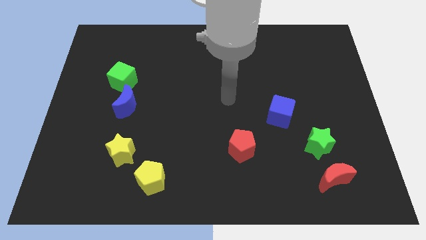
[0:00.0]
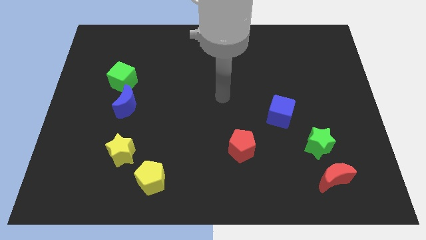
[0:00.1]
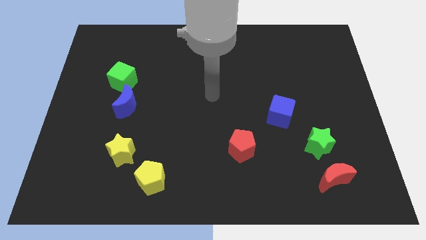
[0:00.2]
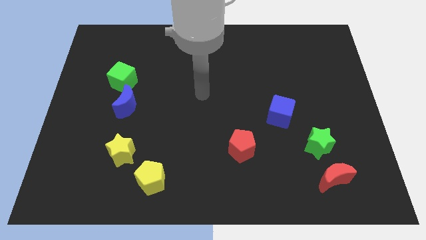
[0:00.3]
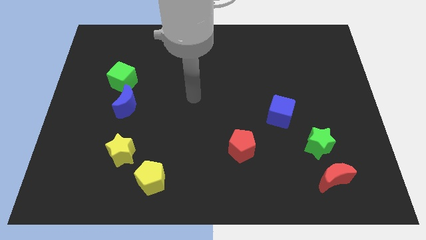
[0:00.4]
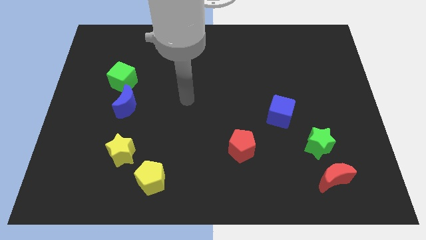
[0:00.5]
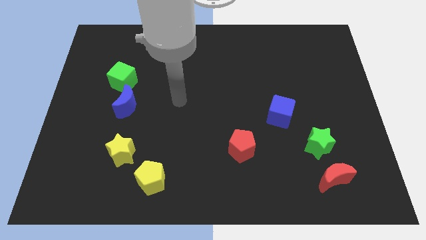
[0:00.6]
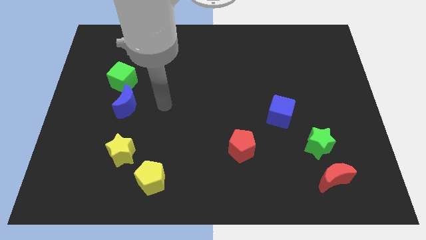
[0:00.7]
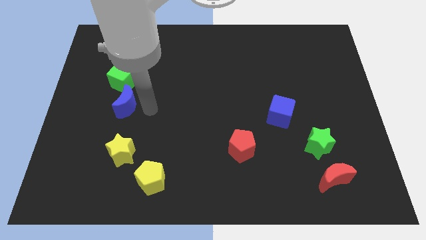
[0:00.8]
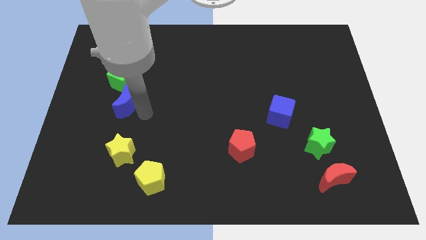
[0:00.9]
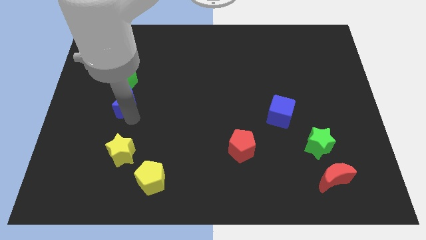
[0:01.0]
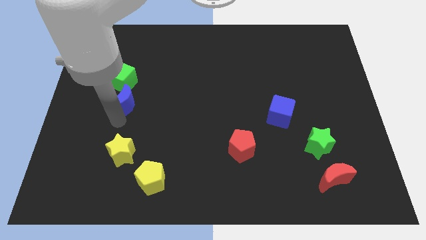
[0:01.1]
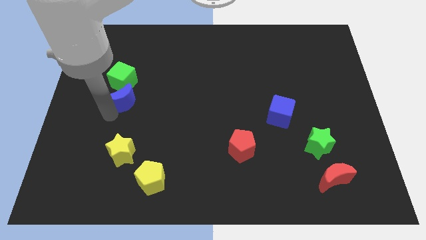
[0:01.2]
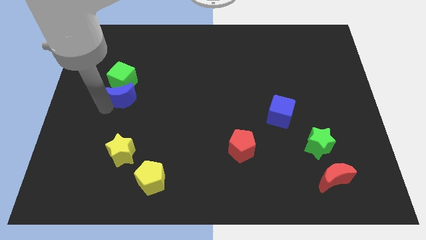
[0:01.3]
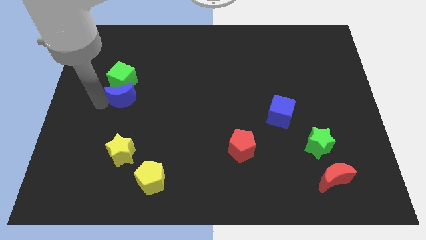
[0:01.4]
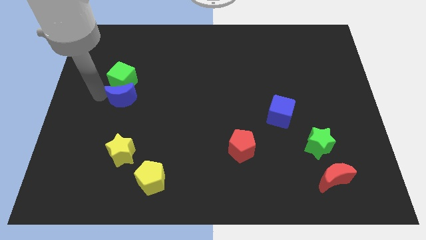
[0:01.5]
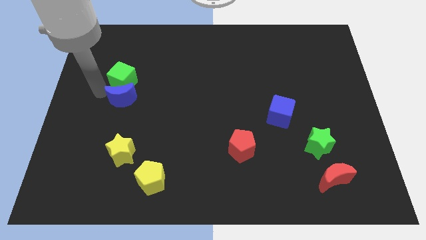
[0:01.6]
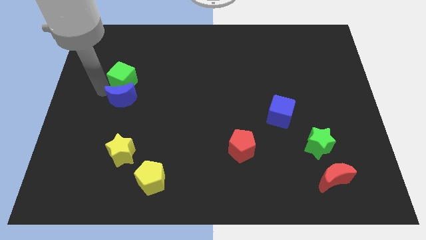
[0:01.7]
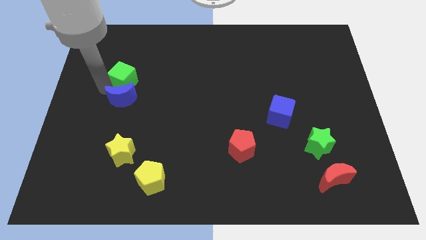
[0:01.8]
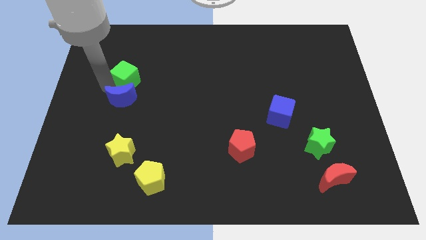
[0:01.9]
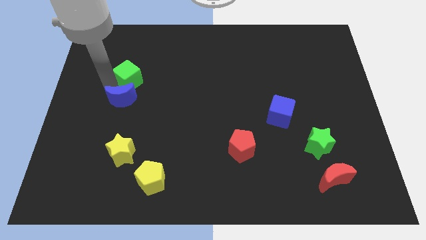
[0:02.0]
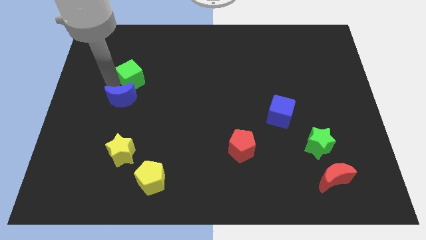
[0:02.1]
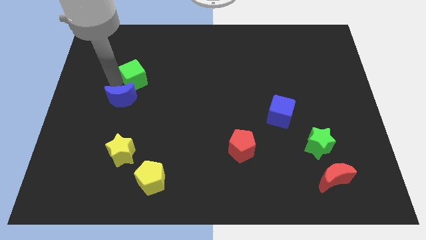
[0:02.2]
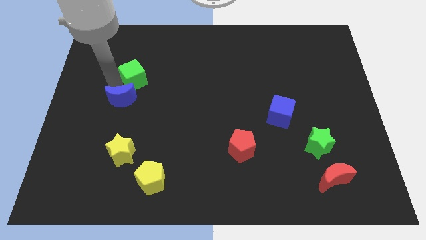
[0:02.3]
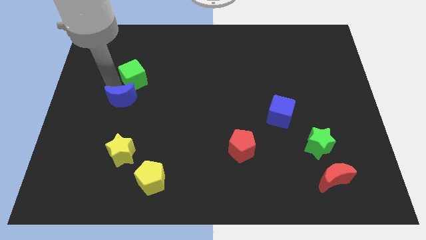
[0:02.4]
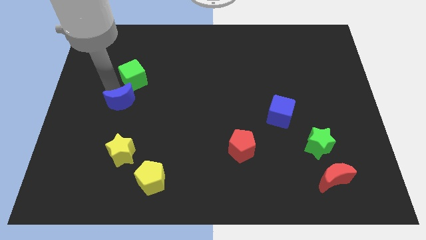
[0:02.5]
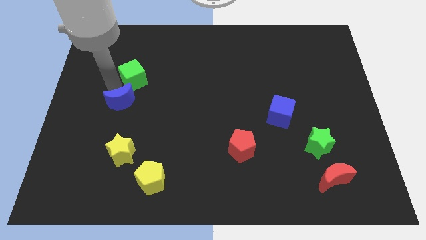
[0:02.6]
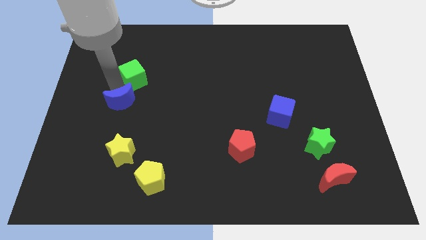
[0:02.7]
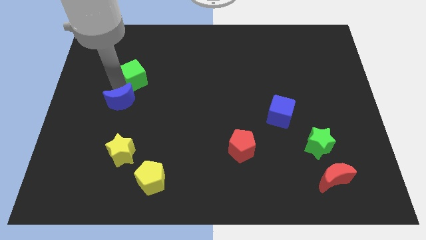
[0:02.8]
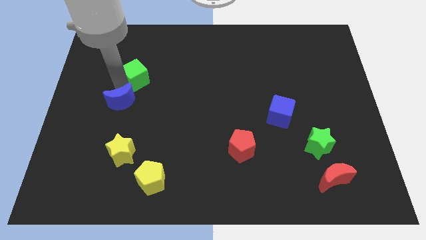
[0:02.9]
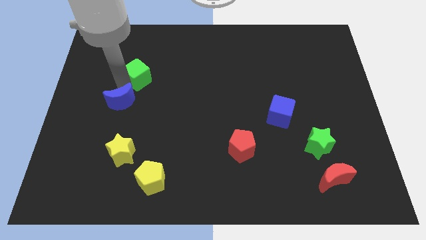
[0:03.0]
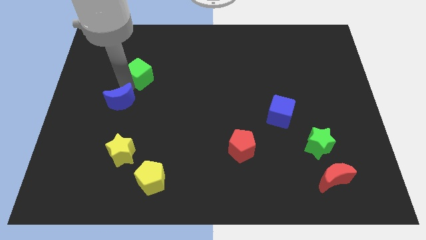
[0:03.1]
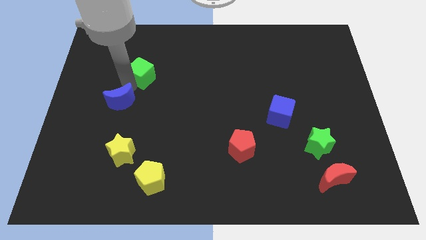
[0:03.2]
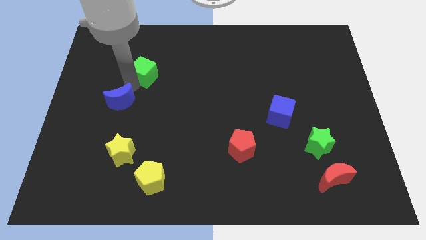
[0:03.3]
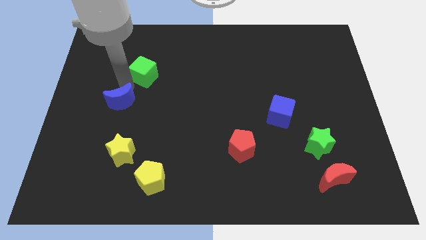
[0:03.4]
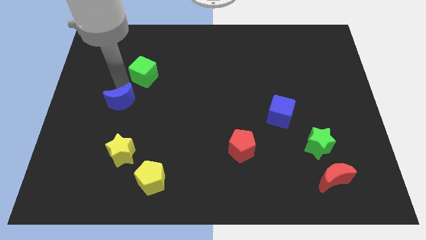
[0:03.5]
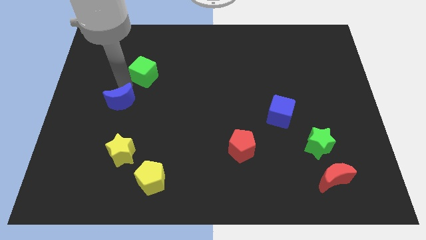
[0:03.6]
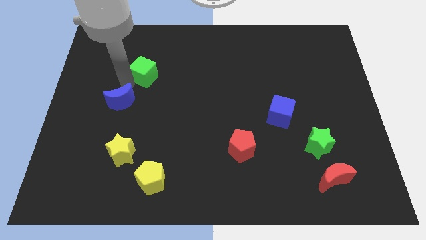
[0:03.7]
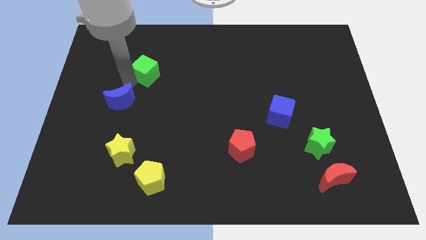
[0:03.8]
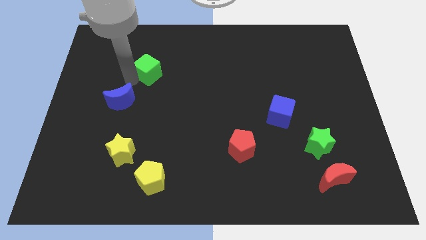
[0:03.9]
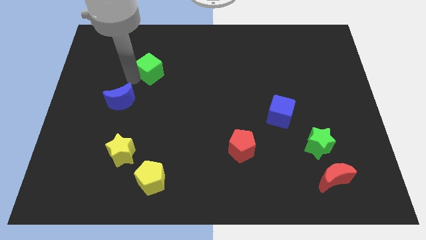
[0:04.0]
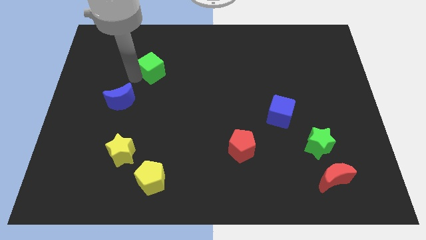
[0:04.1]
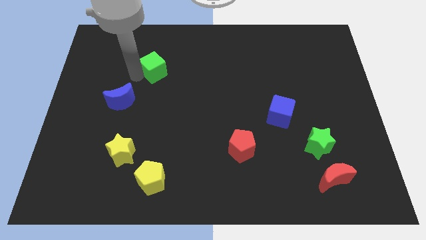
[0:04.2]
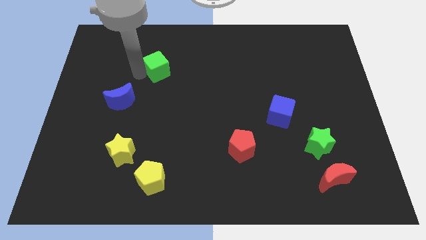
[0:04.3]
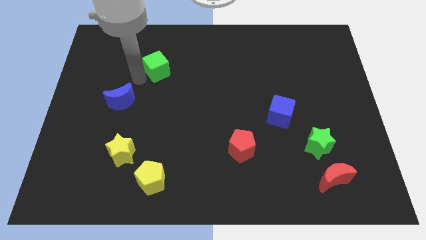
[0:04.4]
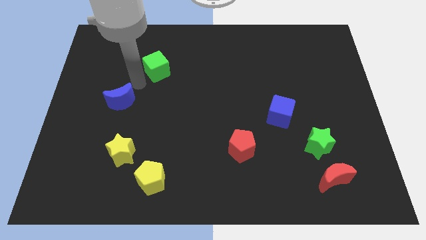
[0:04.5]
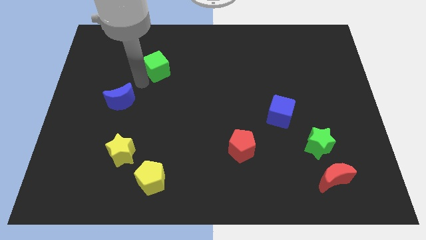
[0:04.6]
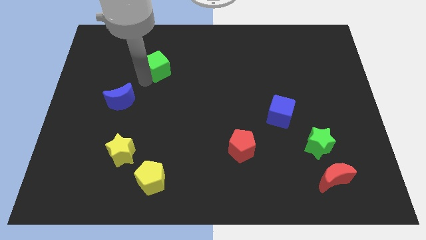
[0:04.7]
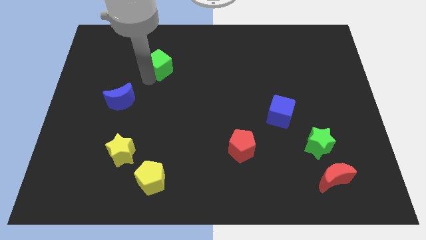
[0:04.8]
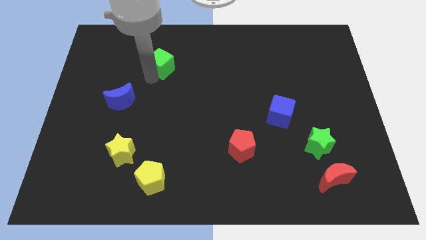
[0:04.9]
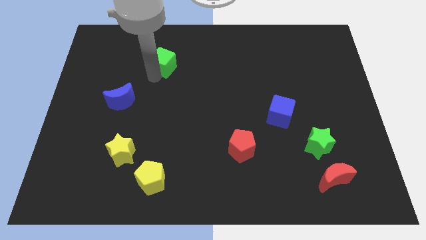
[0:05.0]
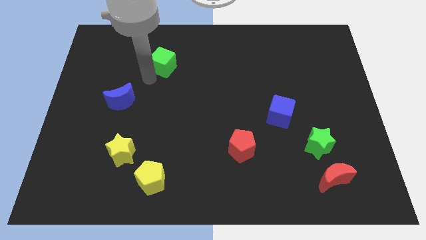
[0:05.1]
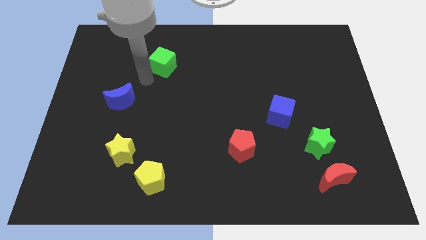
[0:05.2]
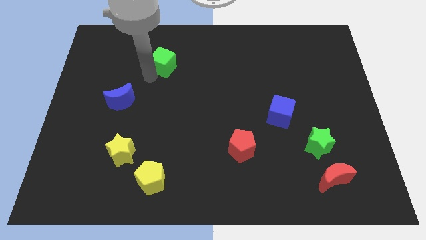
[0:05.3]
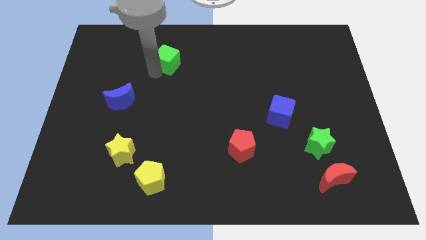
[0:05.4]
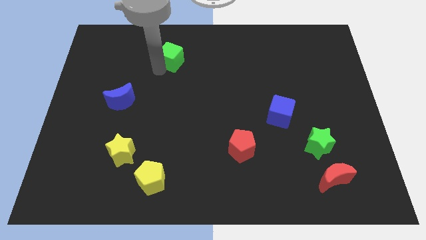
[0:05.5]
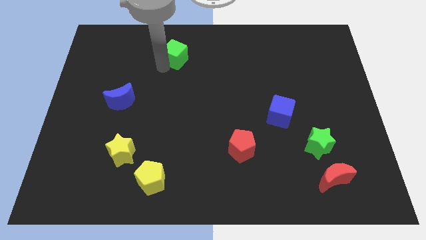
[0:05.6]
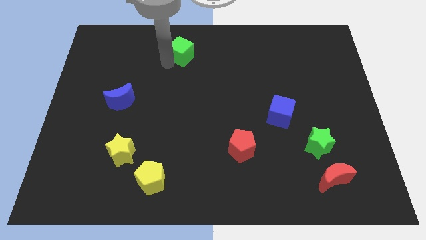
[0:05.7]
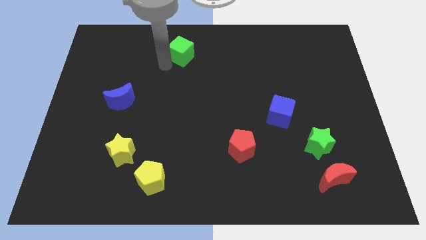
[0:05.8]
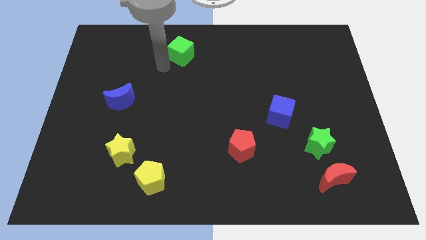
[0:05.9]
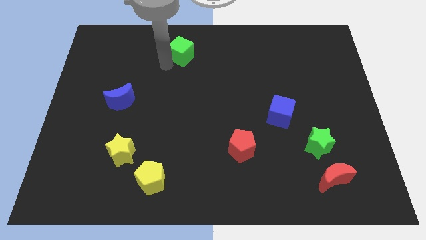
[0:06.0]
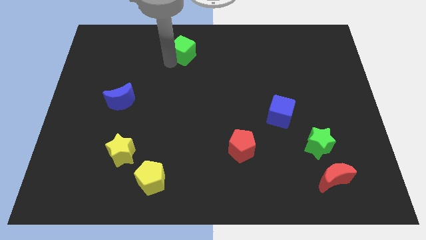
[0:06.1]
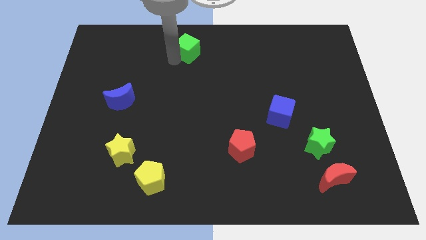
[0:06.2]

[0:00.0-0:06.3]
put the green cube to the top
